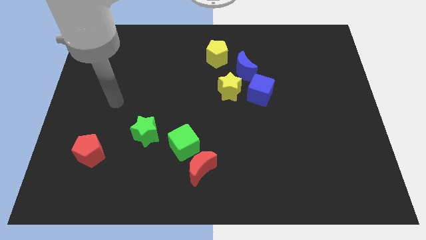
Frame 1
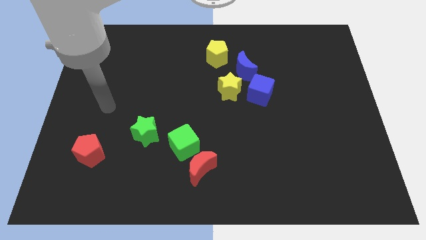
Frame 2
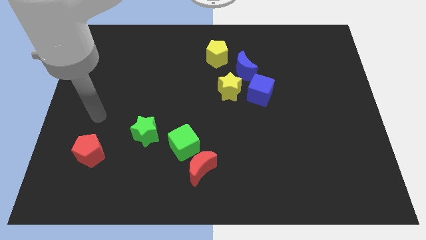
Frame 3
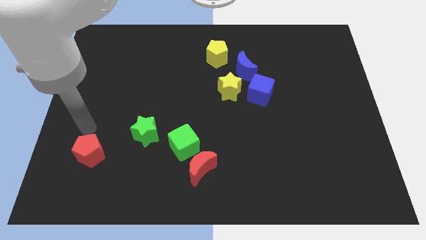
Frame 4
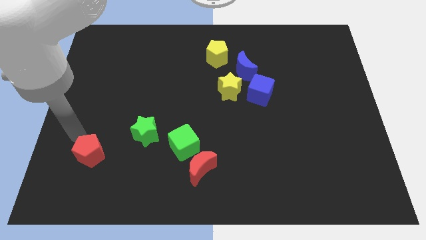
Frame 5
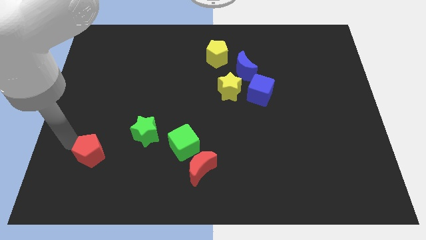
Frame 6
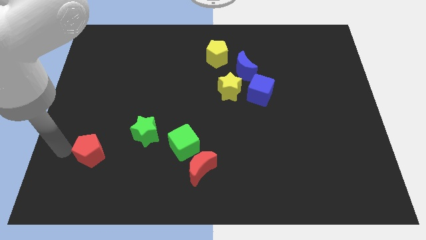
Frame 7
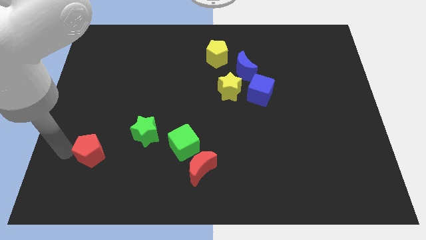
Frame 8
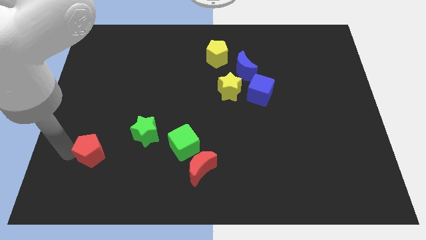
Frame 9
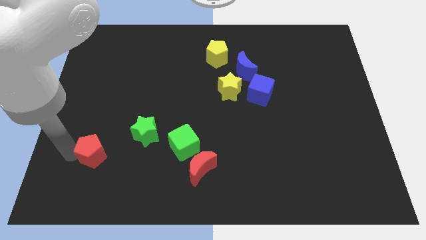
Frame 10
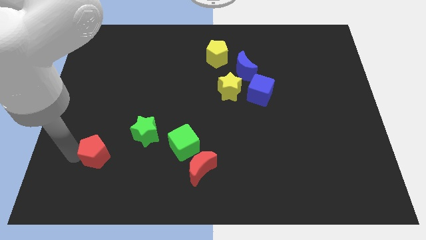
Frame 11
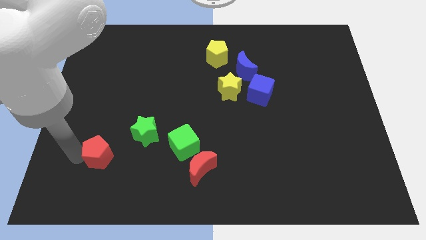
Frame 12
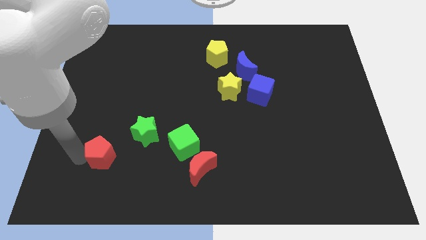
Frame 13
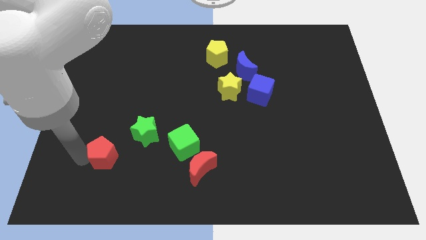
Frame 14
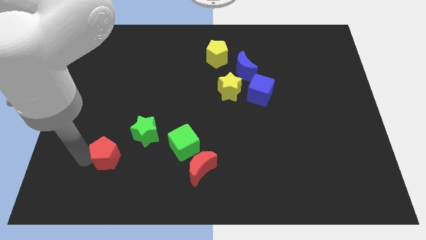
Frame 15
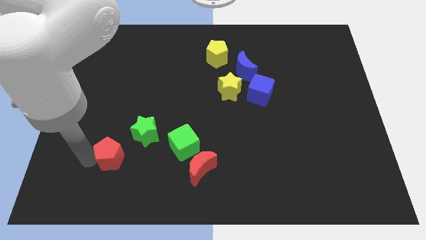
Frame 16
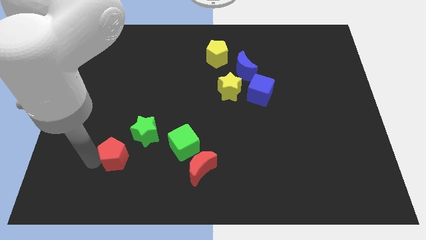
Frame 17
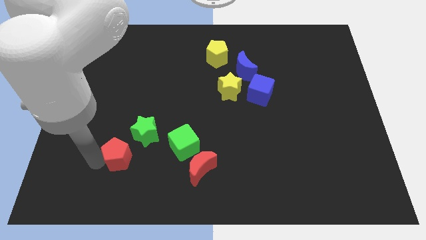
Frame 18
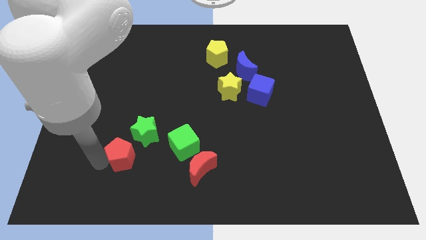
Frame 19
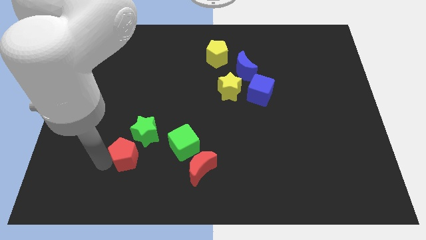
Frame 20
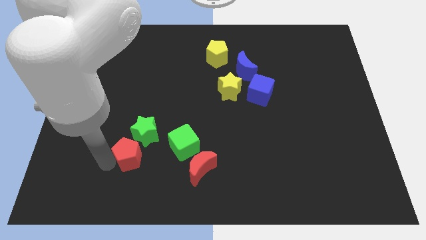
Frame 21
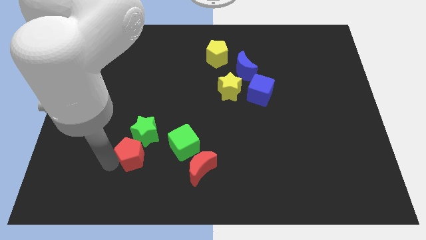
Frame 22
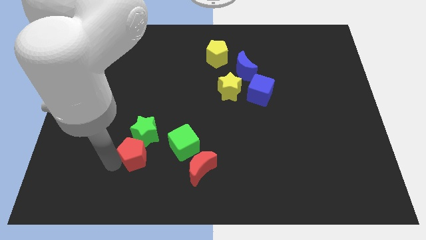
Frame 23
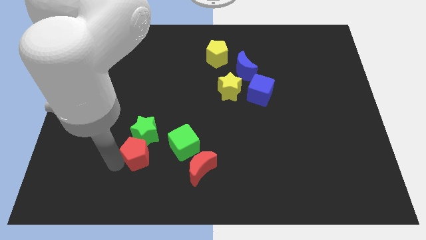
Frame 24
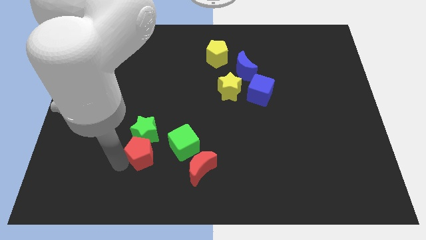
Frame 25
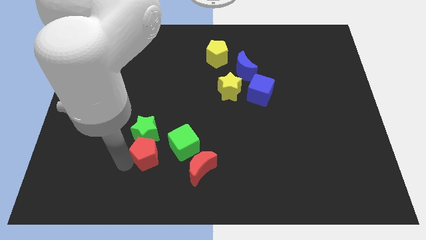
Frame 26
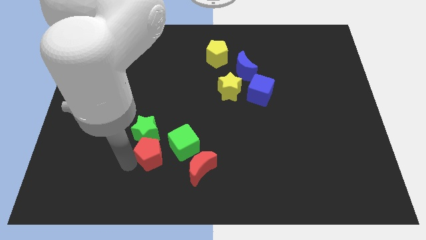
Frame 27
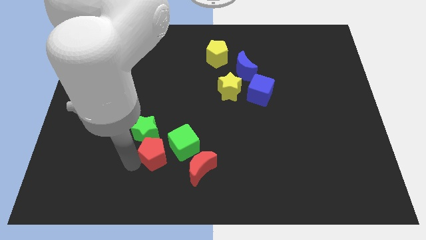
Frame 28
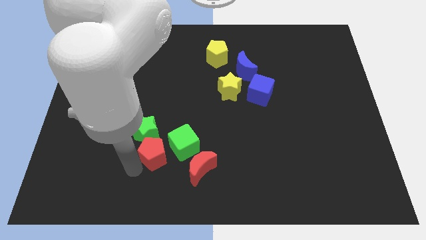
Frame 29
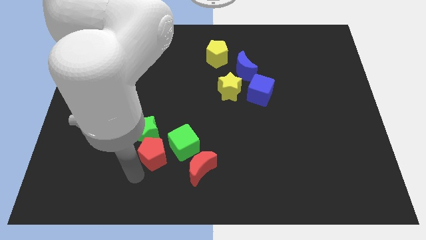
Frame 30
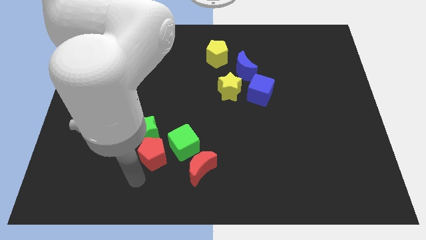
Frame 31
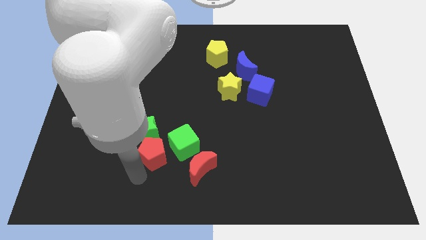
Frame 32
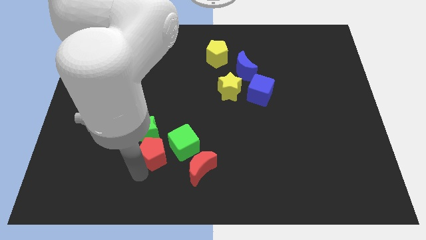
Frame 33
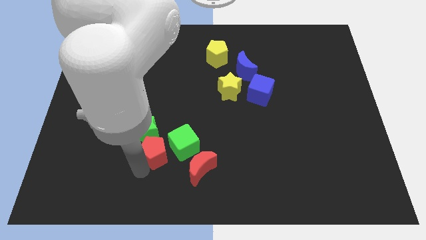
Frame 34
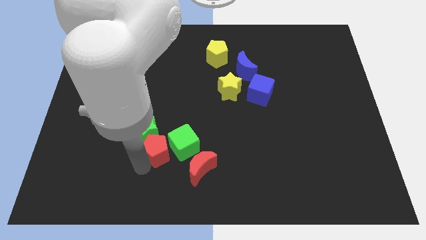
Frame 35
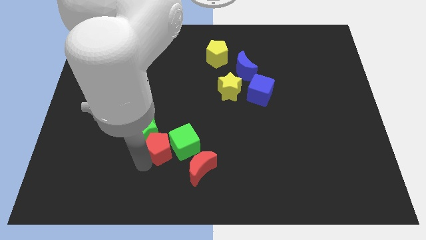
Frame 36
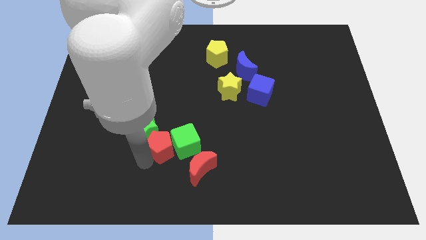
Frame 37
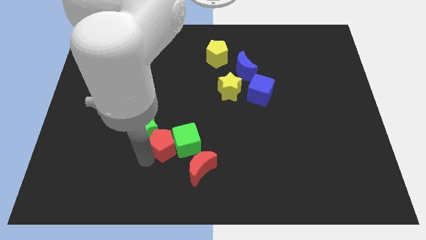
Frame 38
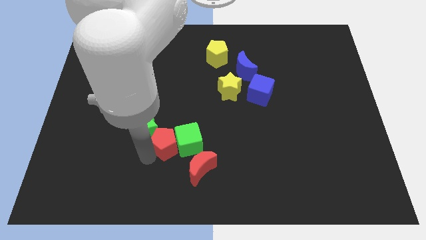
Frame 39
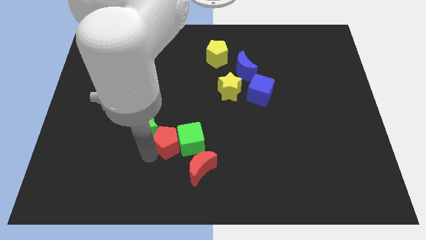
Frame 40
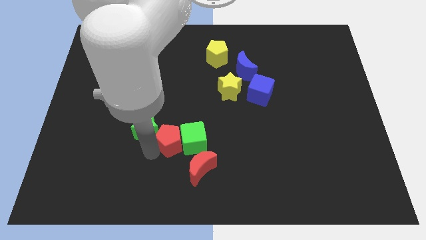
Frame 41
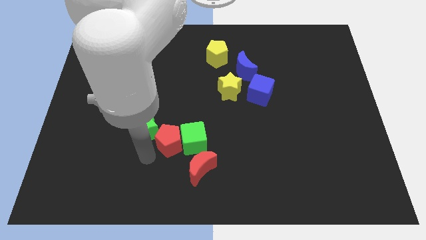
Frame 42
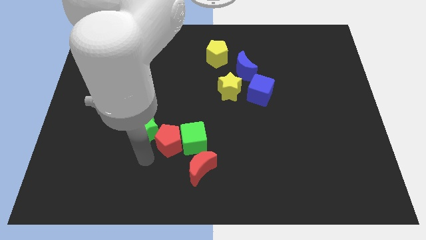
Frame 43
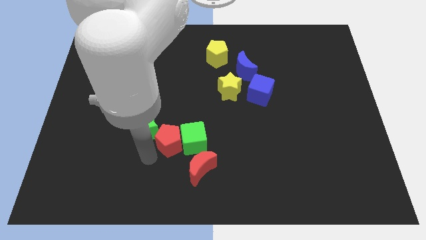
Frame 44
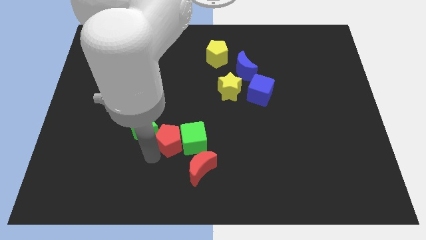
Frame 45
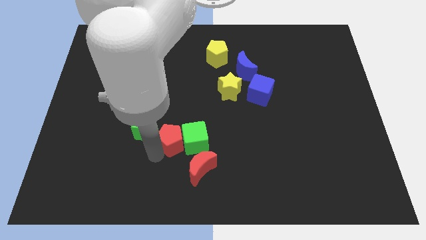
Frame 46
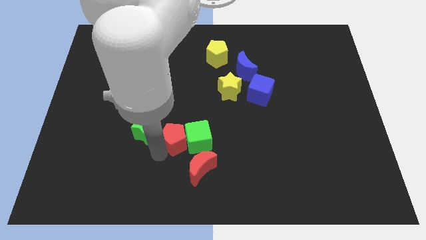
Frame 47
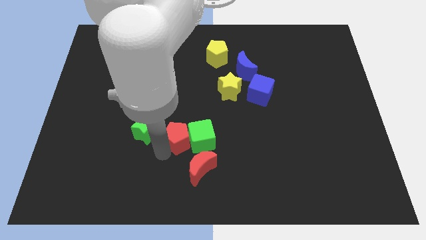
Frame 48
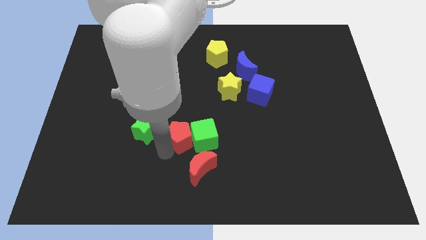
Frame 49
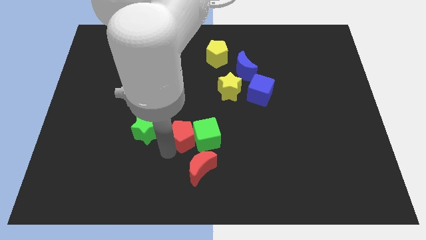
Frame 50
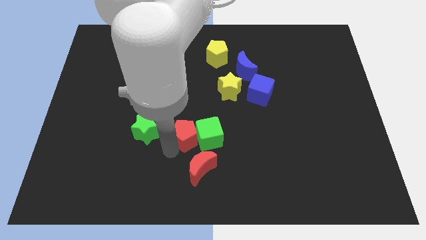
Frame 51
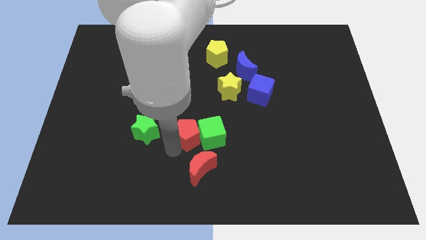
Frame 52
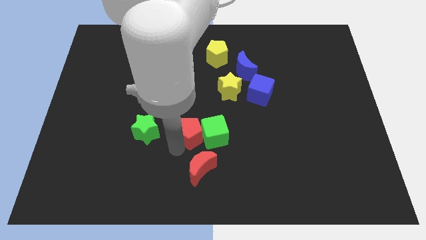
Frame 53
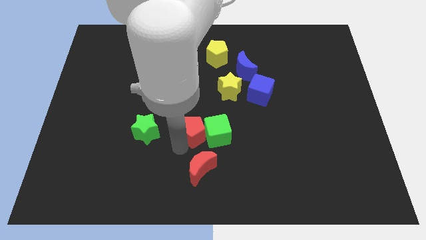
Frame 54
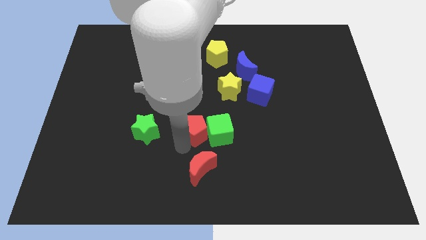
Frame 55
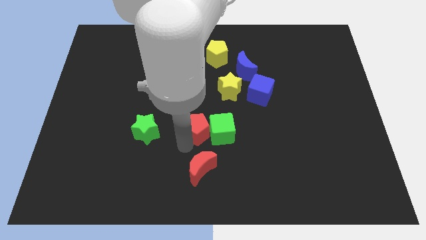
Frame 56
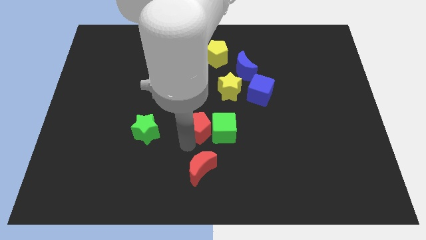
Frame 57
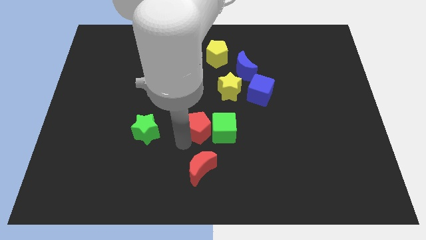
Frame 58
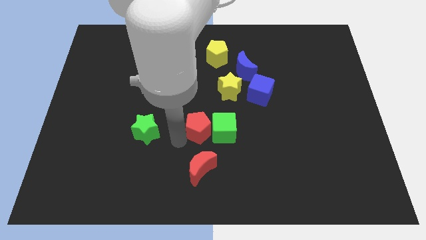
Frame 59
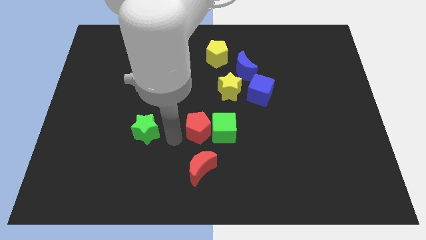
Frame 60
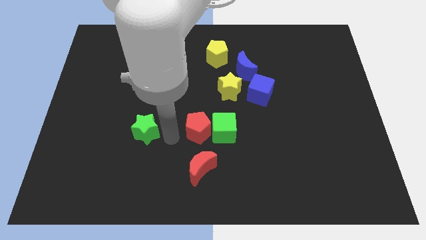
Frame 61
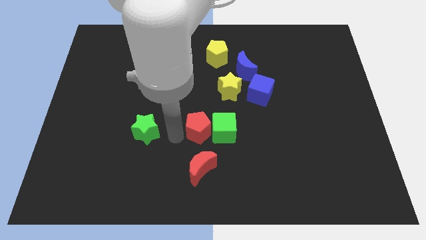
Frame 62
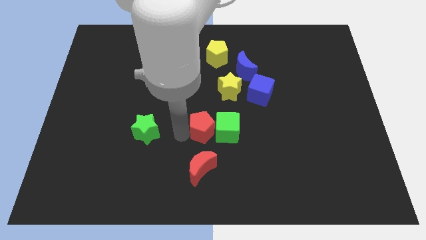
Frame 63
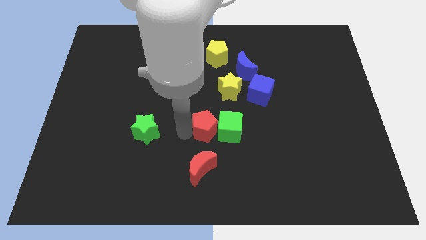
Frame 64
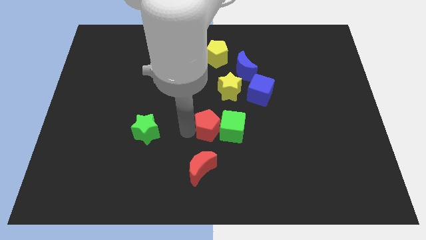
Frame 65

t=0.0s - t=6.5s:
put the red pentagon below the yellow star

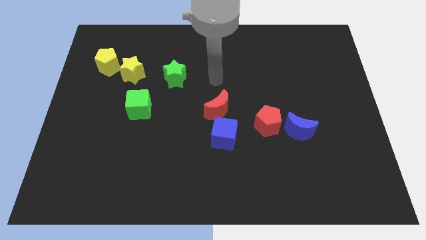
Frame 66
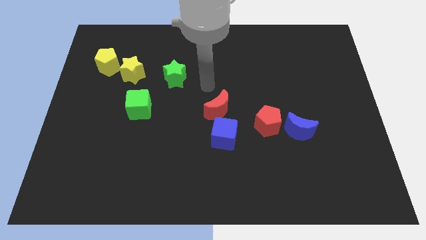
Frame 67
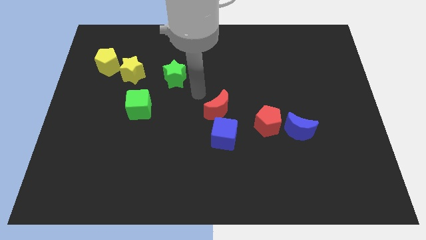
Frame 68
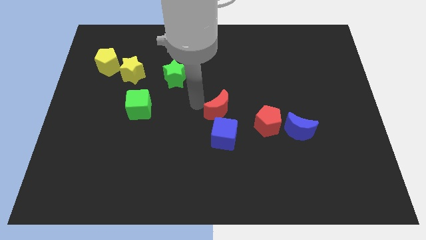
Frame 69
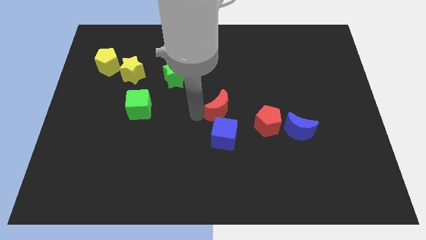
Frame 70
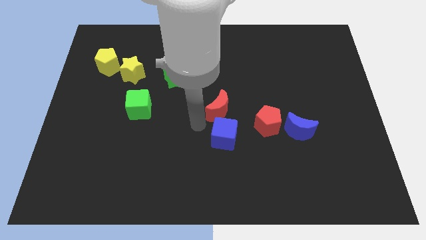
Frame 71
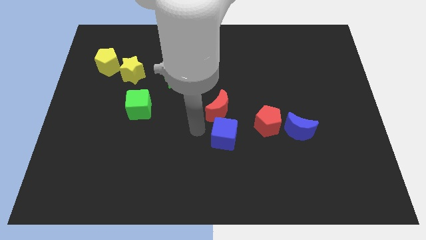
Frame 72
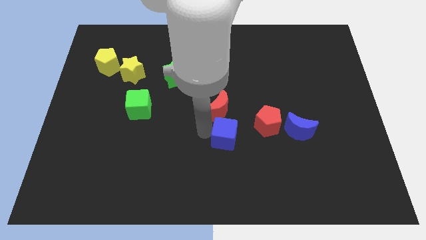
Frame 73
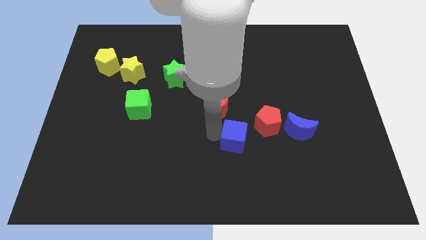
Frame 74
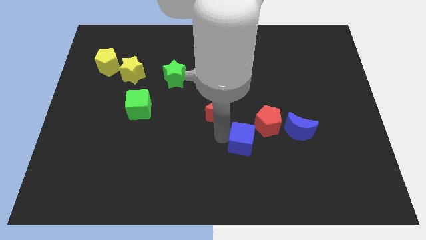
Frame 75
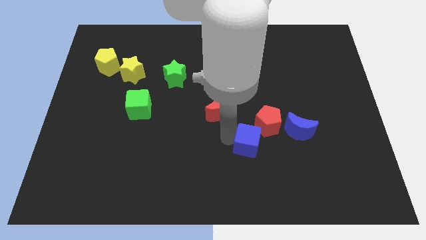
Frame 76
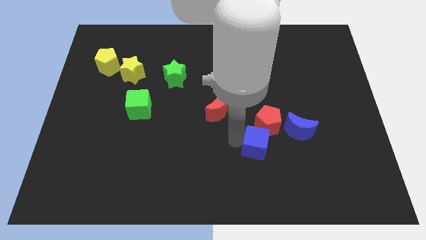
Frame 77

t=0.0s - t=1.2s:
push the blue cube diagonally down and to the left of the blue moon
